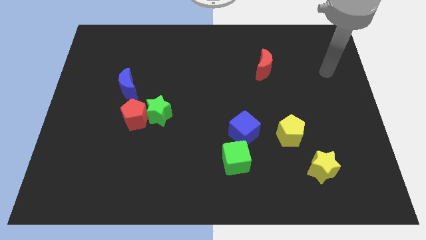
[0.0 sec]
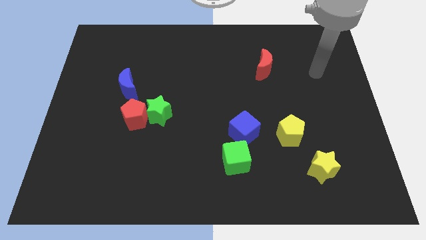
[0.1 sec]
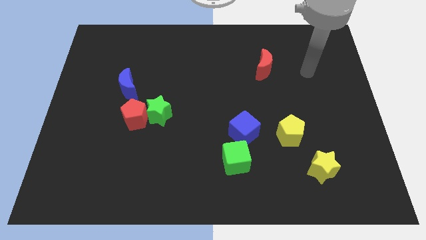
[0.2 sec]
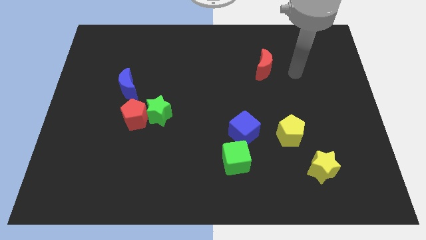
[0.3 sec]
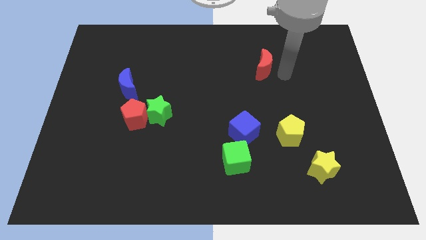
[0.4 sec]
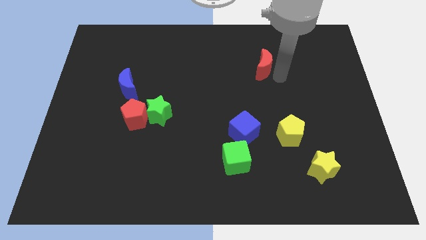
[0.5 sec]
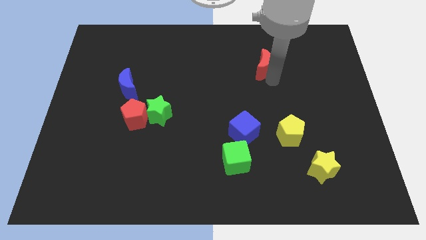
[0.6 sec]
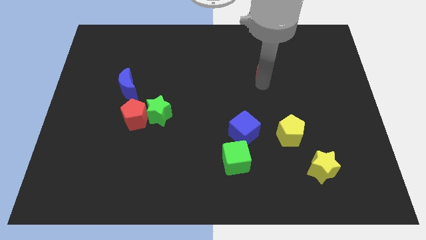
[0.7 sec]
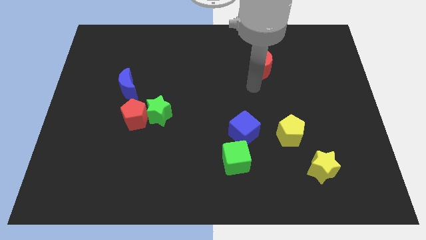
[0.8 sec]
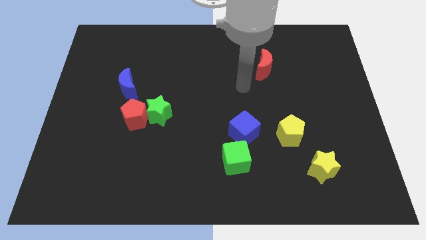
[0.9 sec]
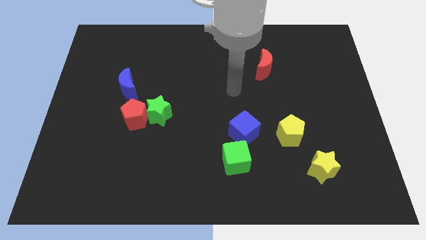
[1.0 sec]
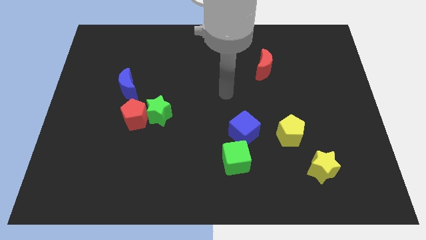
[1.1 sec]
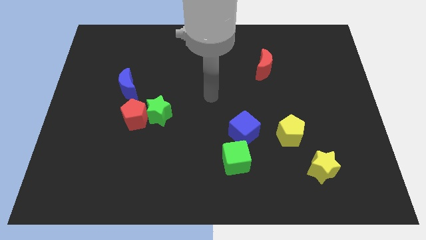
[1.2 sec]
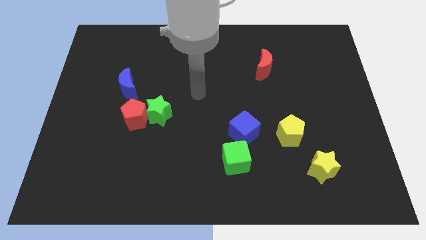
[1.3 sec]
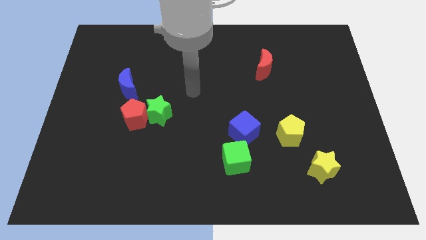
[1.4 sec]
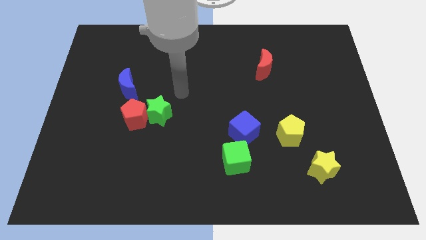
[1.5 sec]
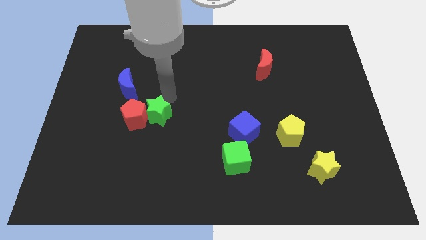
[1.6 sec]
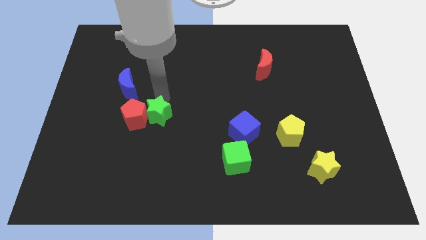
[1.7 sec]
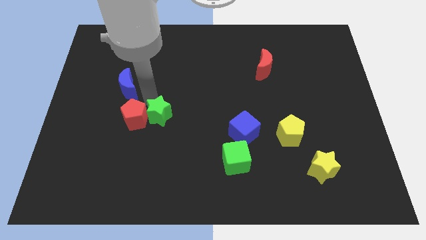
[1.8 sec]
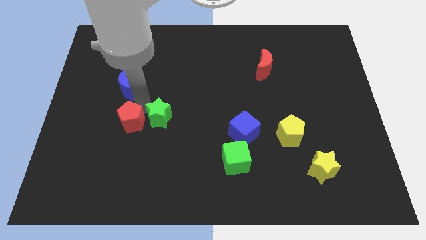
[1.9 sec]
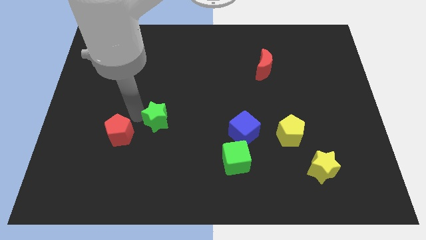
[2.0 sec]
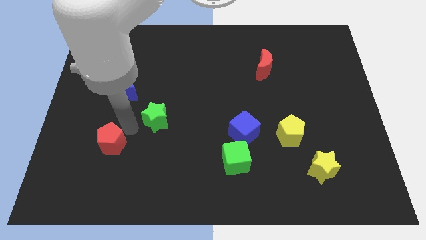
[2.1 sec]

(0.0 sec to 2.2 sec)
pull the green star apart from the red pentagon

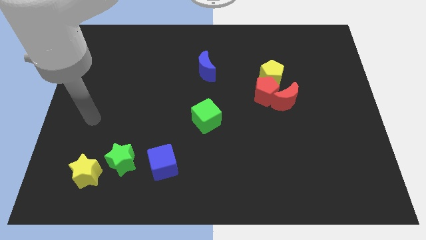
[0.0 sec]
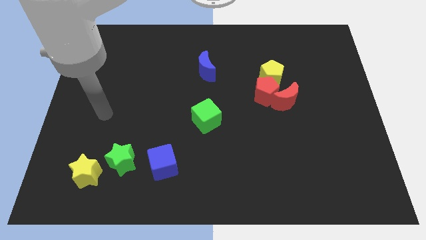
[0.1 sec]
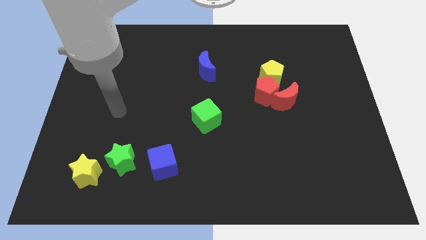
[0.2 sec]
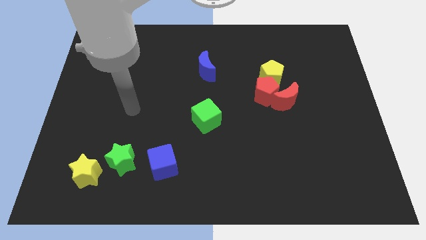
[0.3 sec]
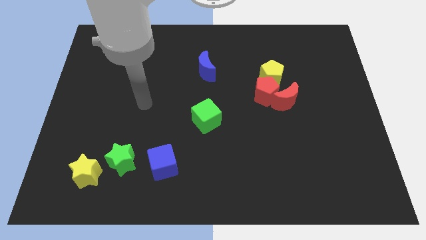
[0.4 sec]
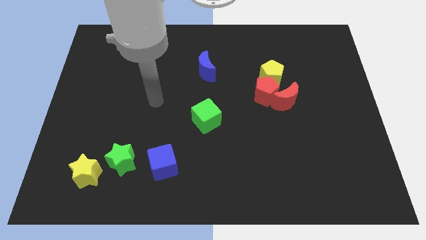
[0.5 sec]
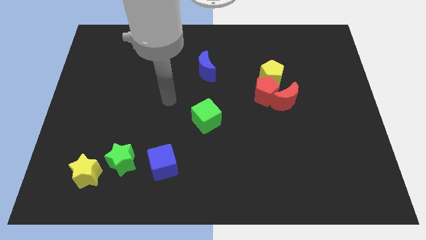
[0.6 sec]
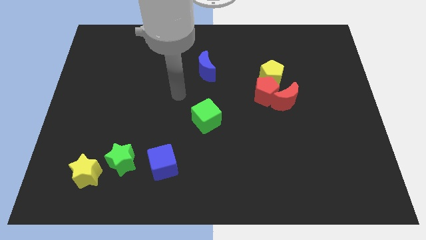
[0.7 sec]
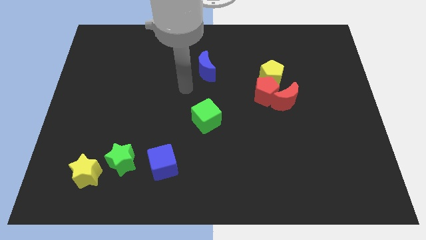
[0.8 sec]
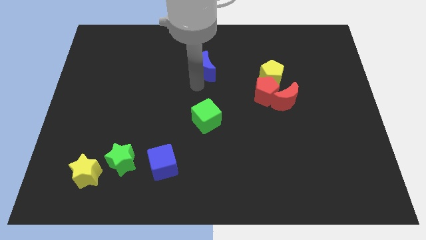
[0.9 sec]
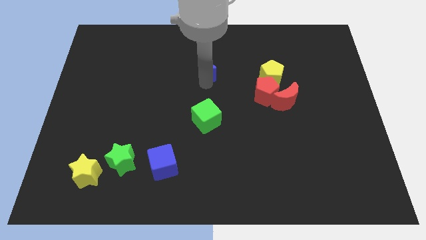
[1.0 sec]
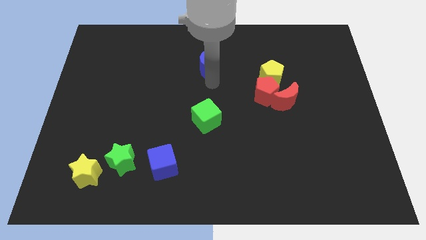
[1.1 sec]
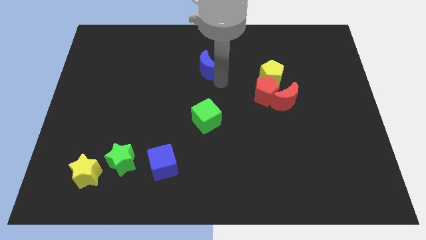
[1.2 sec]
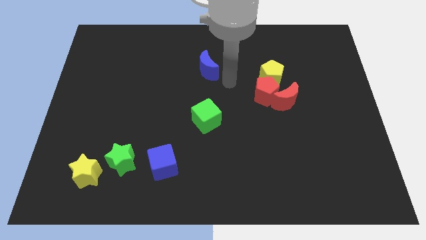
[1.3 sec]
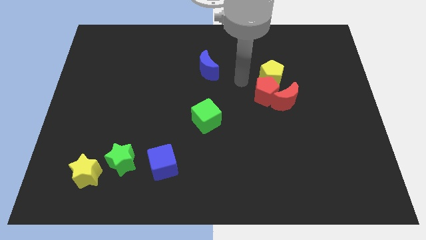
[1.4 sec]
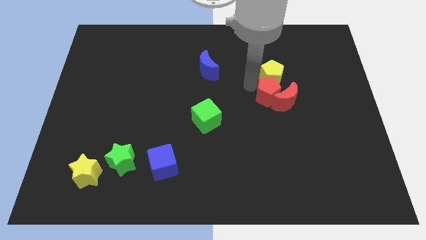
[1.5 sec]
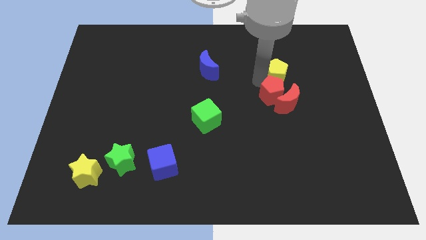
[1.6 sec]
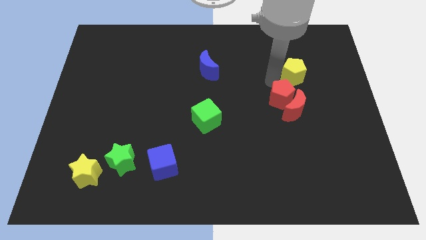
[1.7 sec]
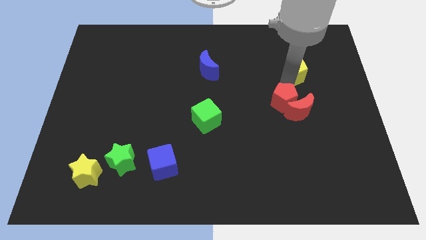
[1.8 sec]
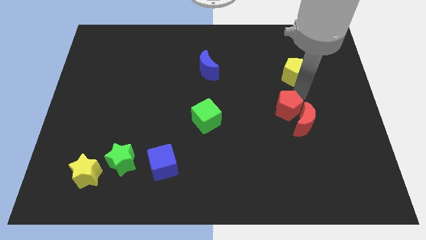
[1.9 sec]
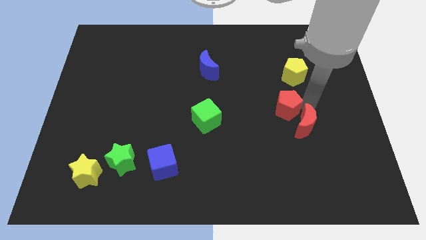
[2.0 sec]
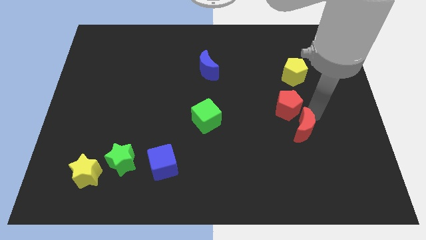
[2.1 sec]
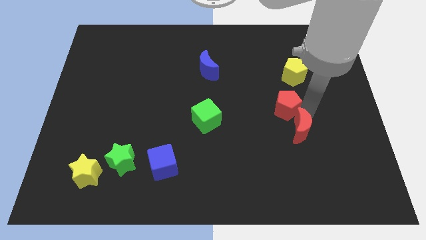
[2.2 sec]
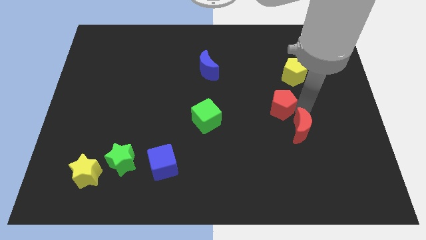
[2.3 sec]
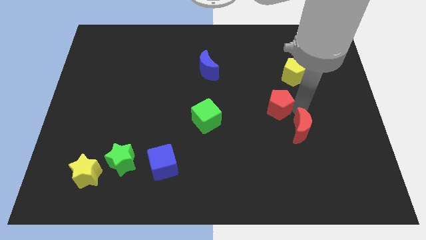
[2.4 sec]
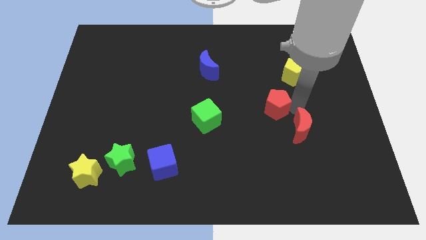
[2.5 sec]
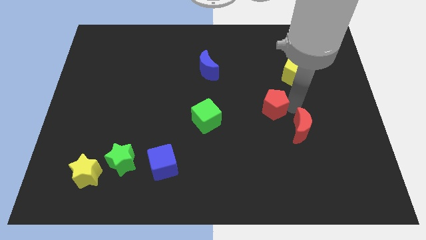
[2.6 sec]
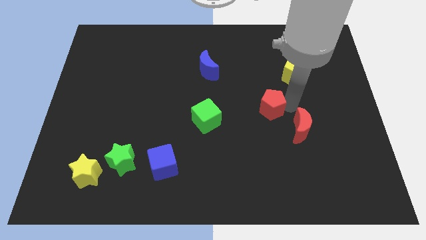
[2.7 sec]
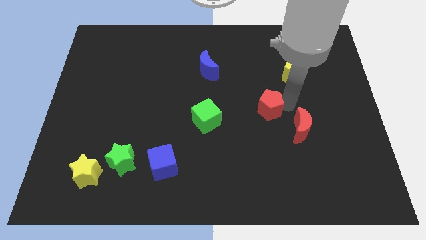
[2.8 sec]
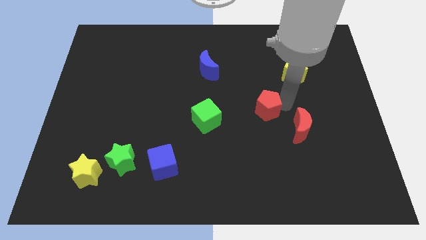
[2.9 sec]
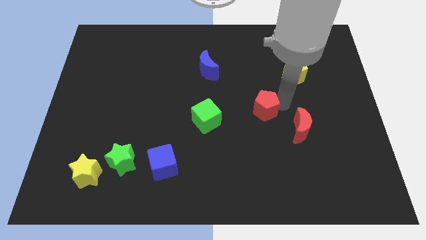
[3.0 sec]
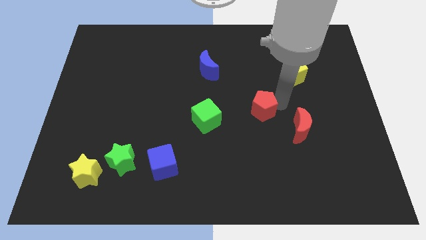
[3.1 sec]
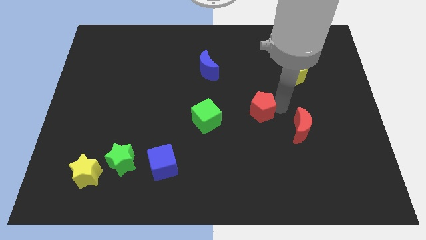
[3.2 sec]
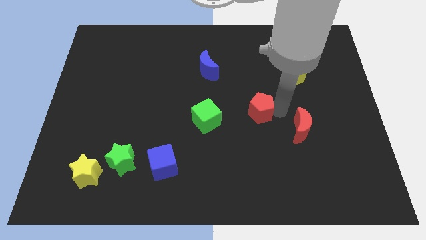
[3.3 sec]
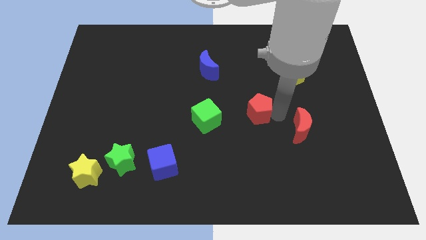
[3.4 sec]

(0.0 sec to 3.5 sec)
move the red pentagon away from the red moon and yellow pentagon

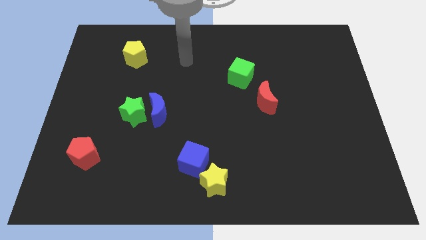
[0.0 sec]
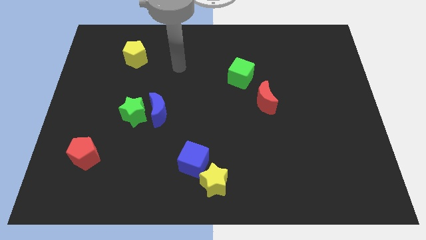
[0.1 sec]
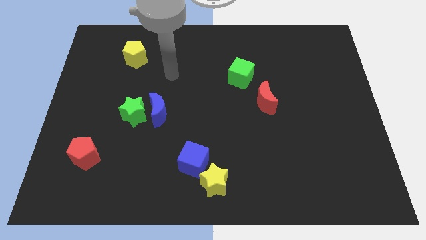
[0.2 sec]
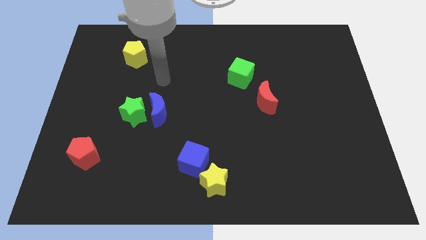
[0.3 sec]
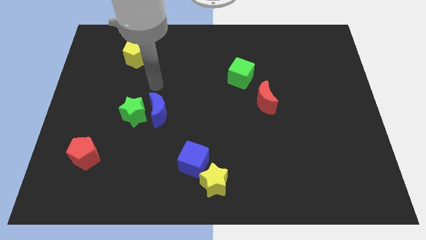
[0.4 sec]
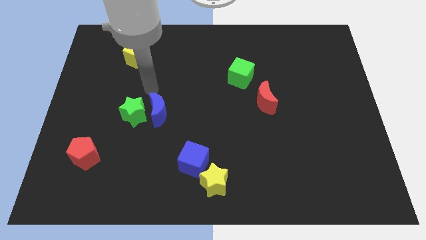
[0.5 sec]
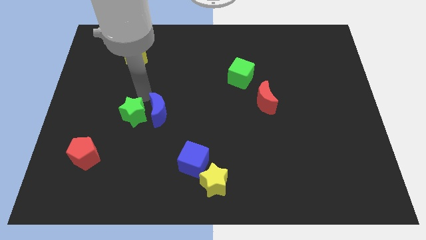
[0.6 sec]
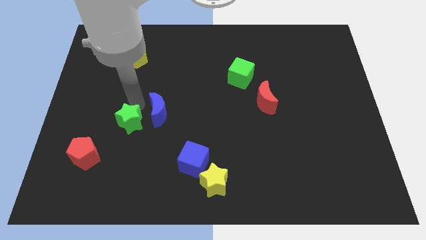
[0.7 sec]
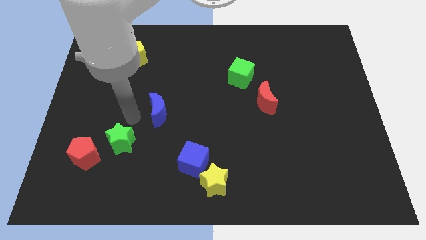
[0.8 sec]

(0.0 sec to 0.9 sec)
separate the blue moon from the green star

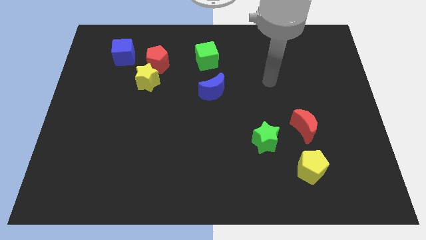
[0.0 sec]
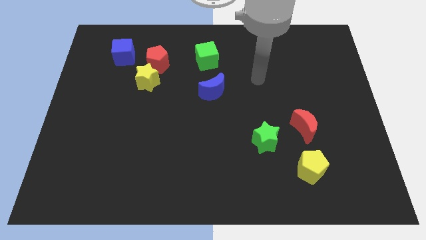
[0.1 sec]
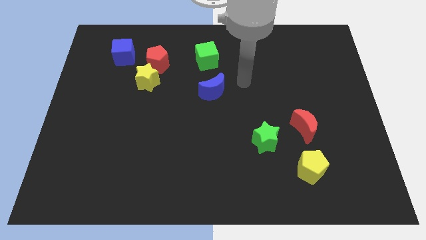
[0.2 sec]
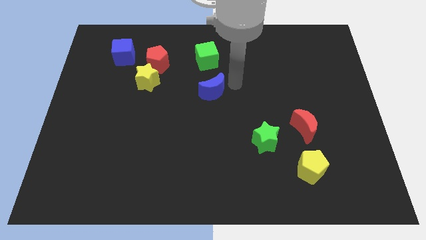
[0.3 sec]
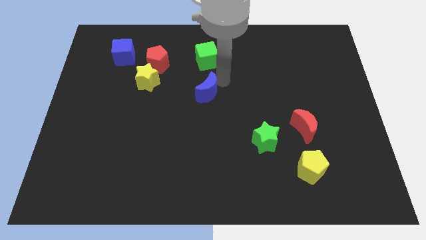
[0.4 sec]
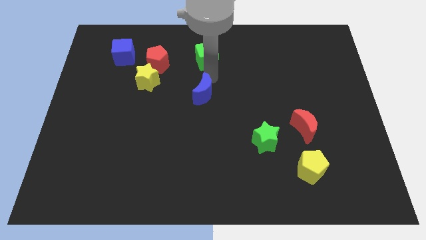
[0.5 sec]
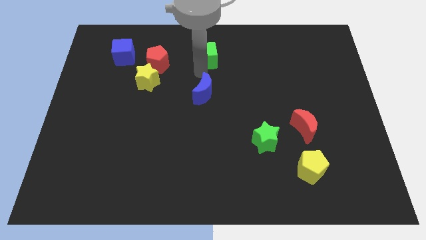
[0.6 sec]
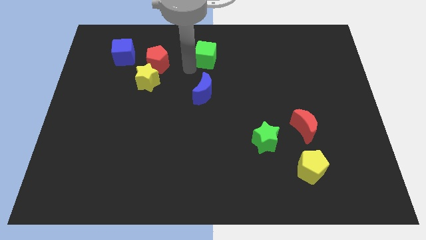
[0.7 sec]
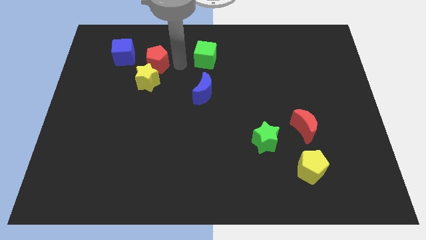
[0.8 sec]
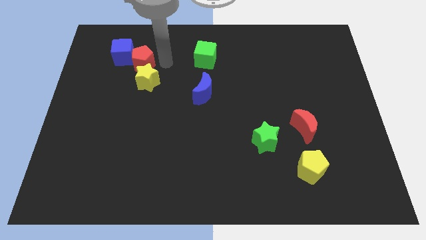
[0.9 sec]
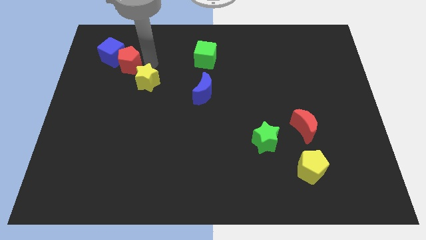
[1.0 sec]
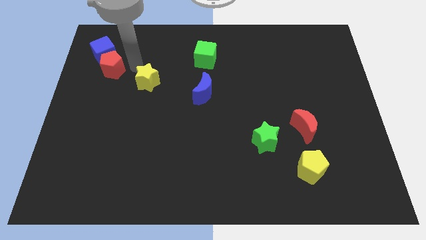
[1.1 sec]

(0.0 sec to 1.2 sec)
move the yellow star away from the red pentagon

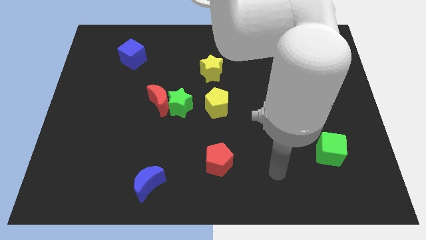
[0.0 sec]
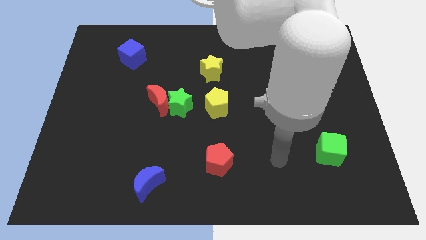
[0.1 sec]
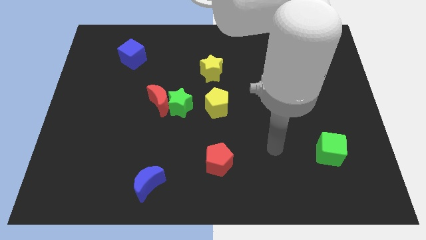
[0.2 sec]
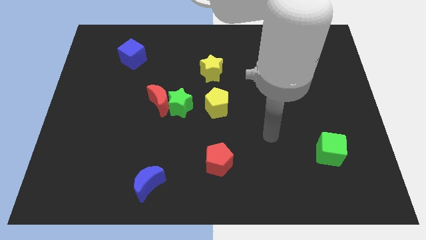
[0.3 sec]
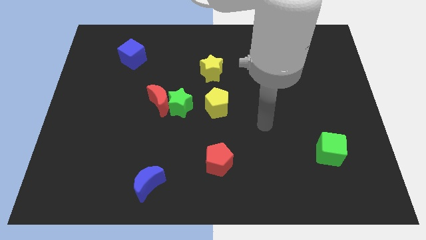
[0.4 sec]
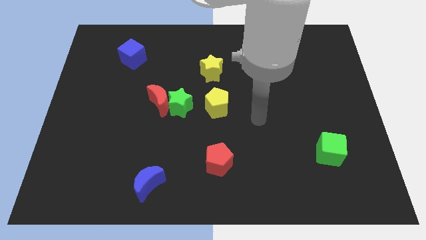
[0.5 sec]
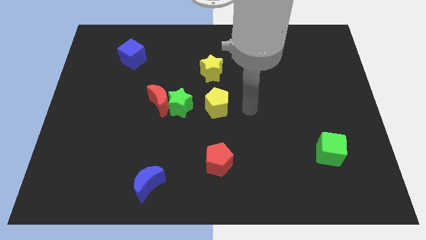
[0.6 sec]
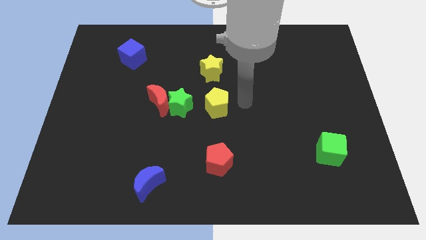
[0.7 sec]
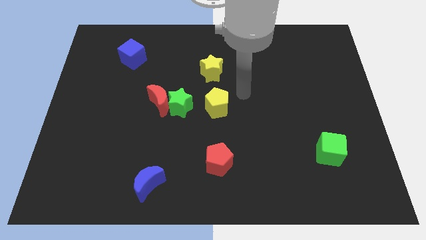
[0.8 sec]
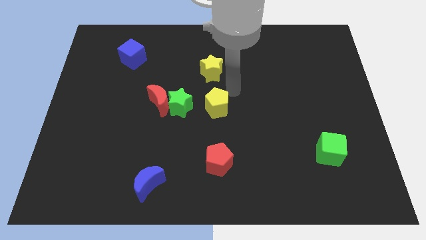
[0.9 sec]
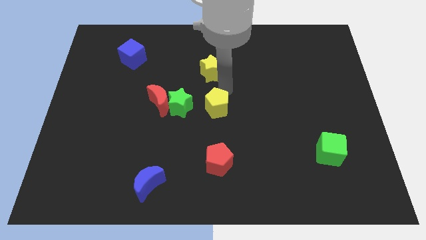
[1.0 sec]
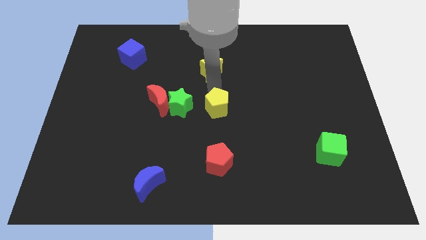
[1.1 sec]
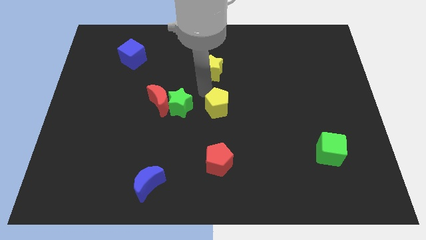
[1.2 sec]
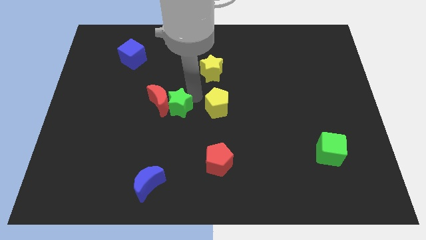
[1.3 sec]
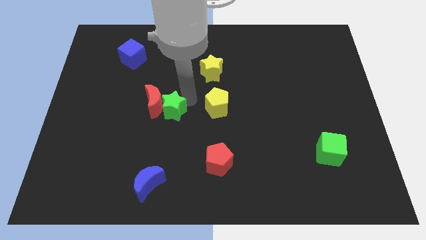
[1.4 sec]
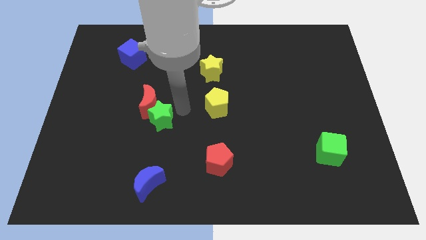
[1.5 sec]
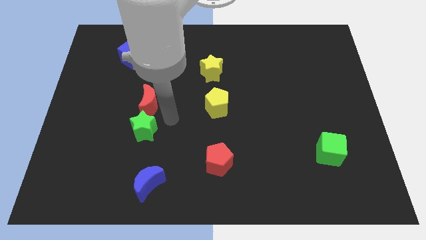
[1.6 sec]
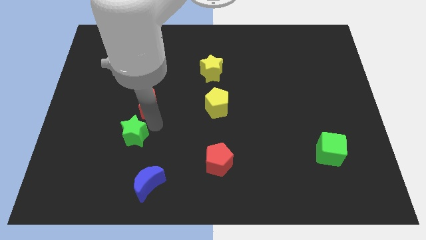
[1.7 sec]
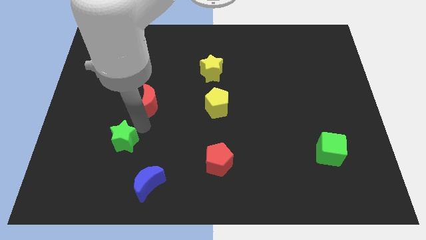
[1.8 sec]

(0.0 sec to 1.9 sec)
separate the red moon from the green star
